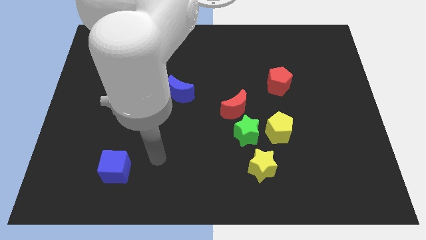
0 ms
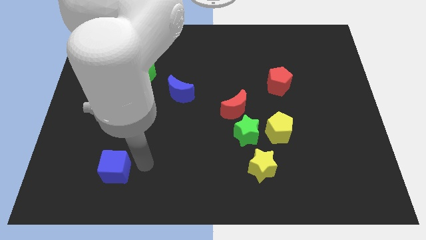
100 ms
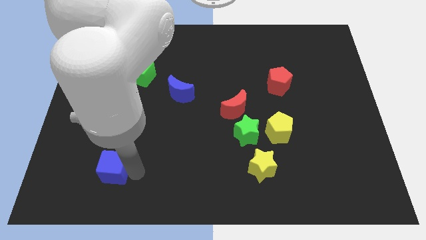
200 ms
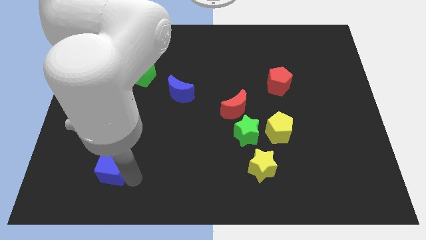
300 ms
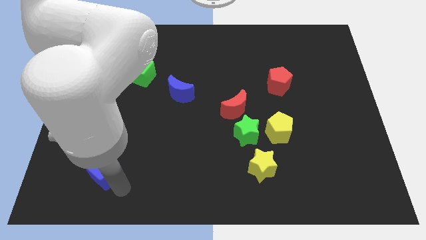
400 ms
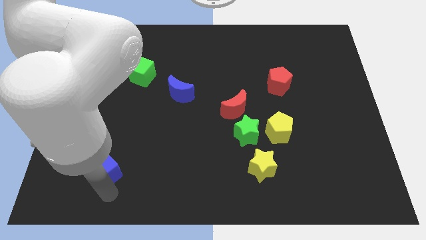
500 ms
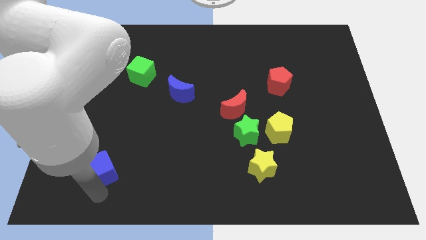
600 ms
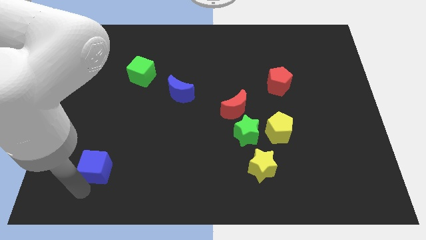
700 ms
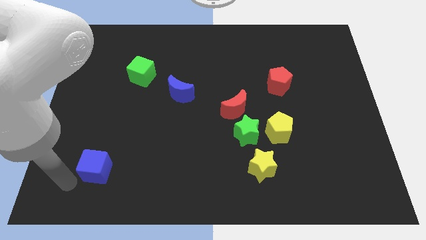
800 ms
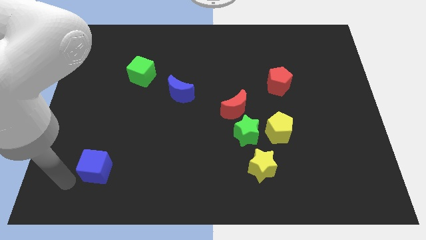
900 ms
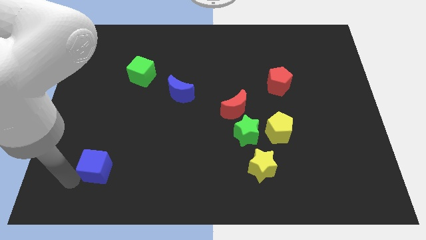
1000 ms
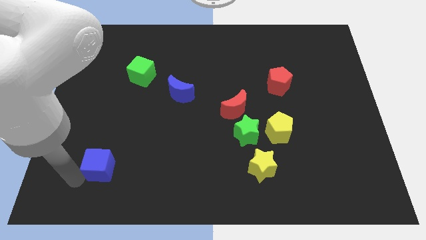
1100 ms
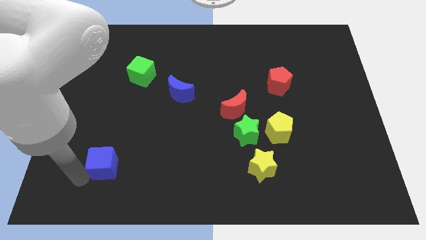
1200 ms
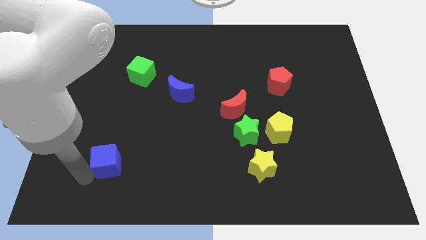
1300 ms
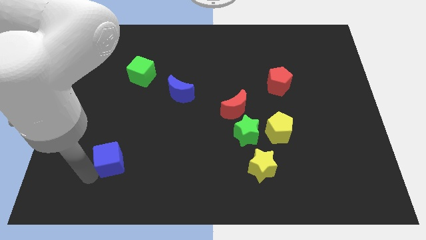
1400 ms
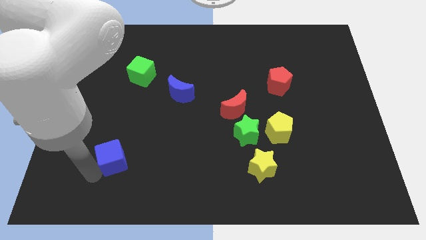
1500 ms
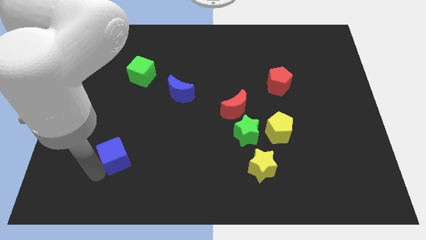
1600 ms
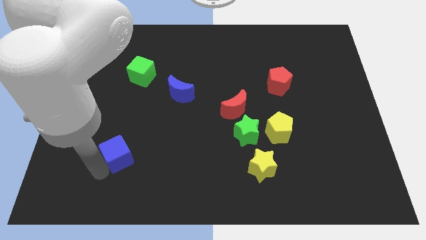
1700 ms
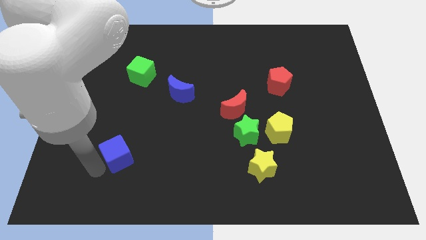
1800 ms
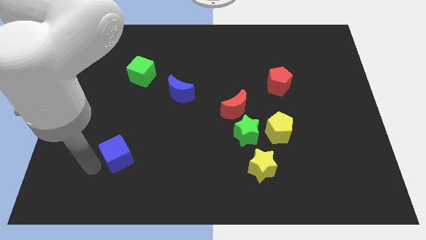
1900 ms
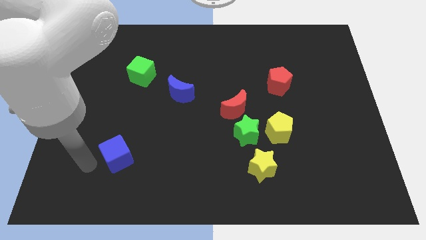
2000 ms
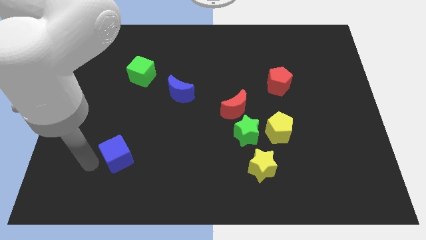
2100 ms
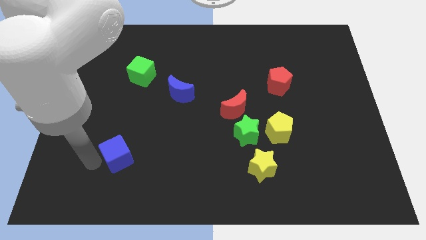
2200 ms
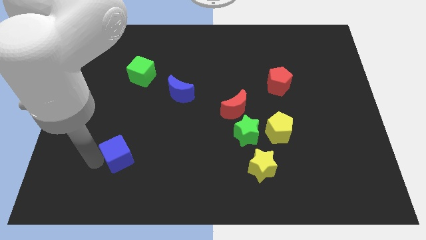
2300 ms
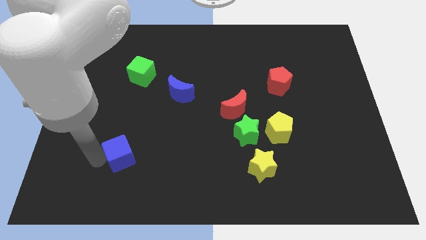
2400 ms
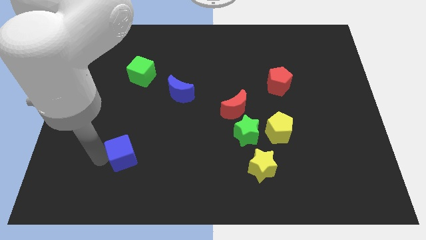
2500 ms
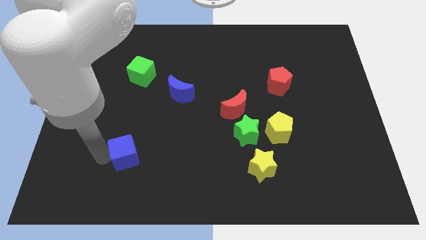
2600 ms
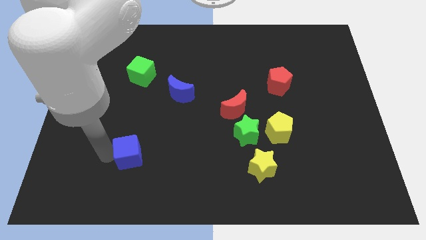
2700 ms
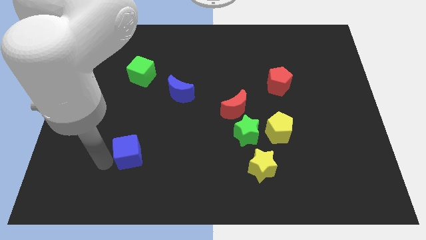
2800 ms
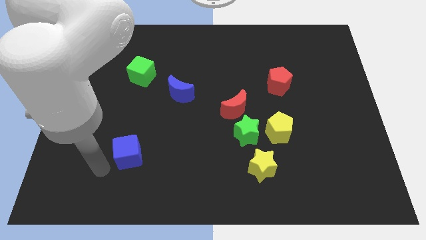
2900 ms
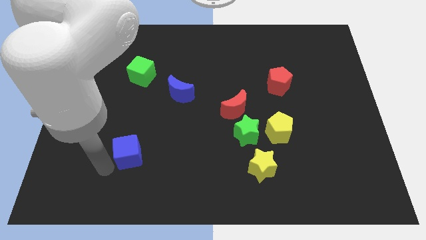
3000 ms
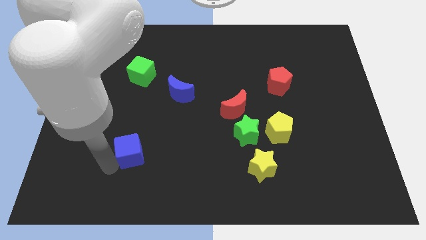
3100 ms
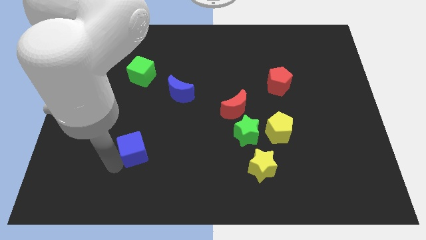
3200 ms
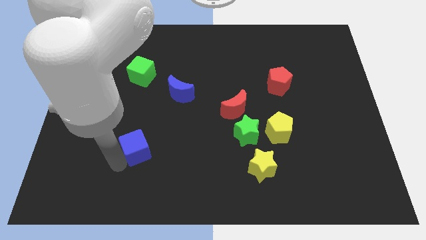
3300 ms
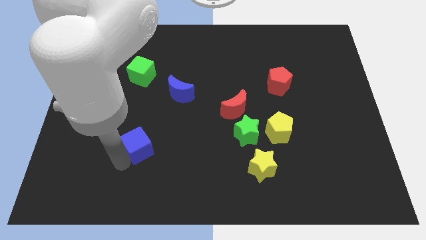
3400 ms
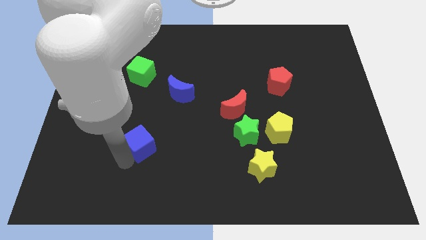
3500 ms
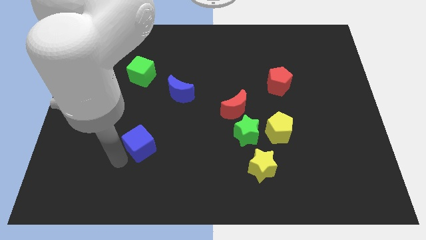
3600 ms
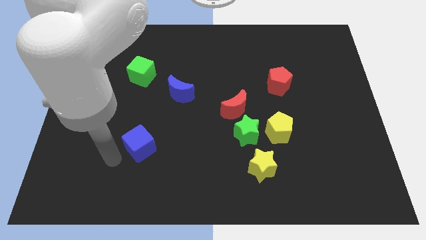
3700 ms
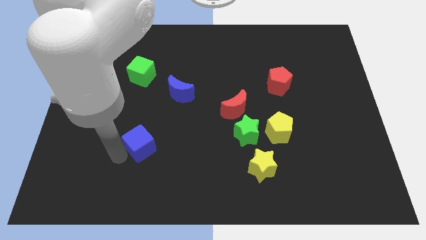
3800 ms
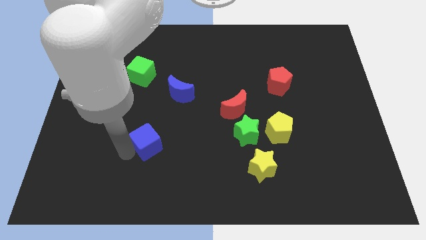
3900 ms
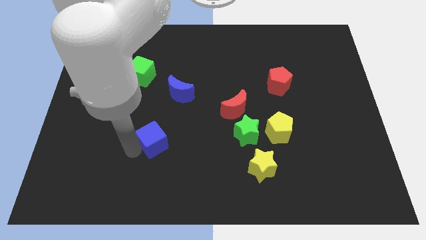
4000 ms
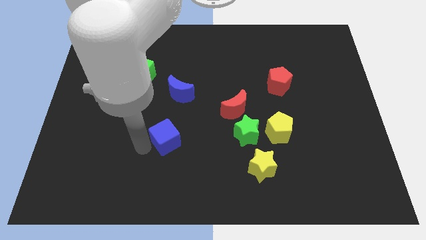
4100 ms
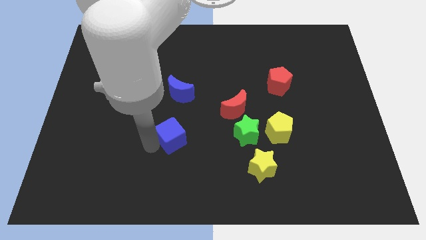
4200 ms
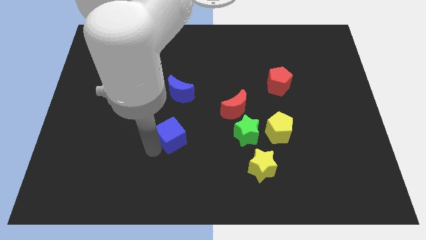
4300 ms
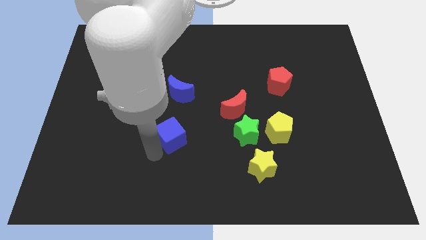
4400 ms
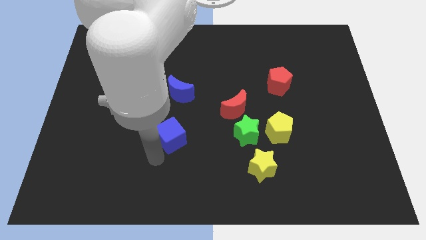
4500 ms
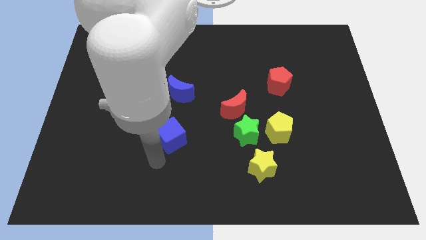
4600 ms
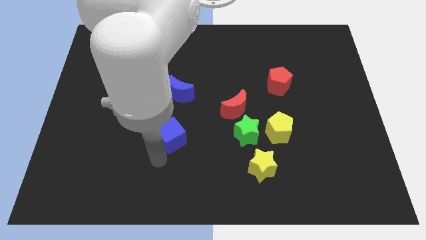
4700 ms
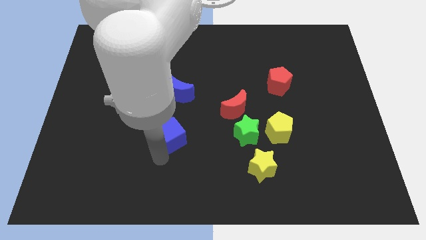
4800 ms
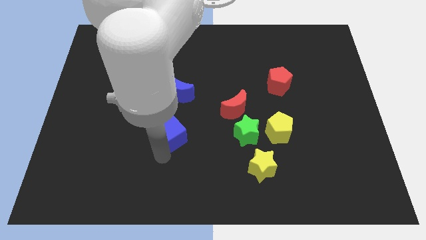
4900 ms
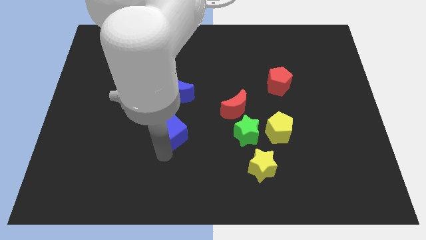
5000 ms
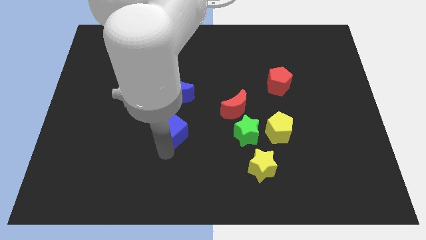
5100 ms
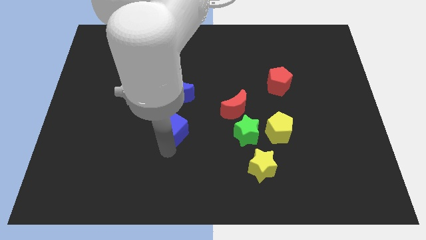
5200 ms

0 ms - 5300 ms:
put the blue cube to the center of the board

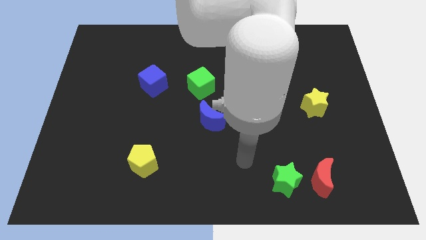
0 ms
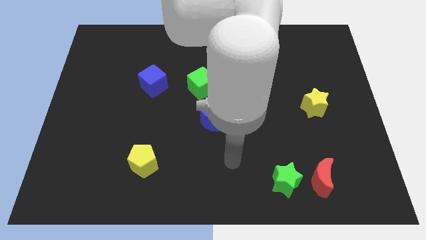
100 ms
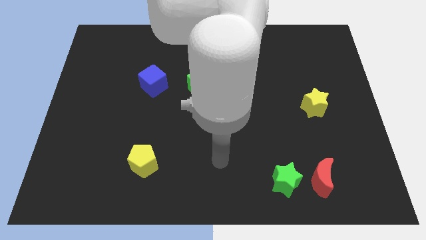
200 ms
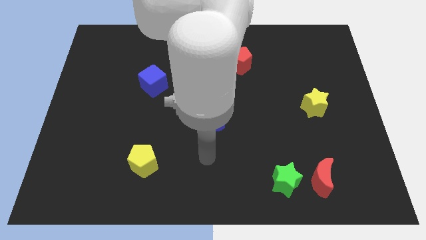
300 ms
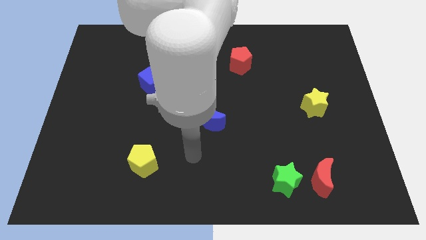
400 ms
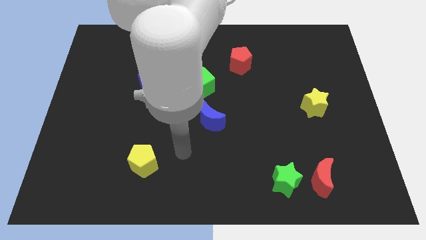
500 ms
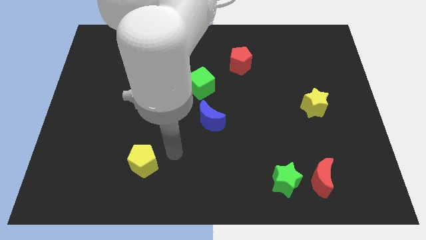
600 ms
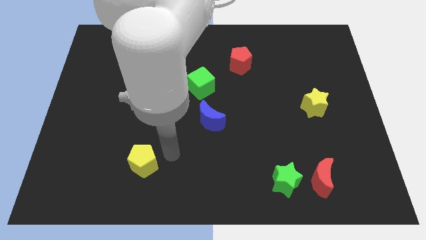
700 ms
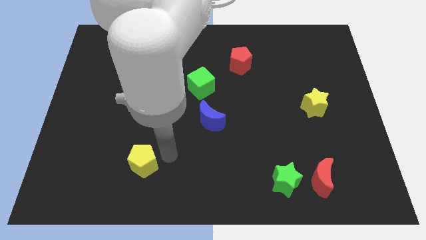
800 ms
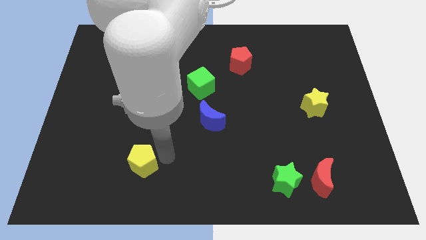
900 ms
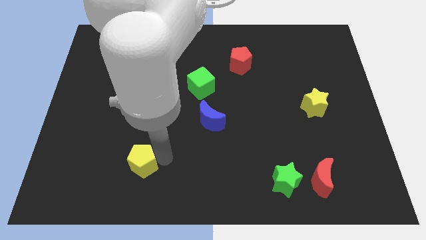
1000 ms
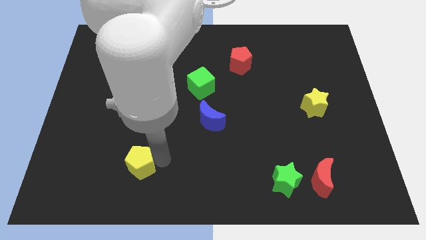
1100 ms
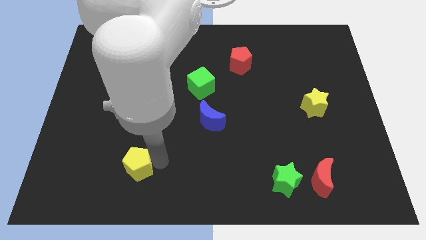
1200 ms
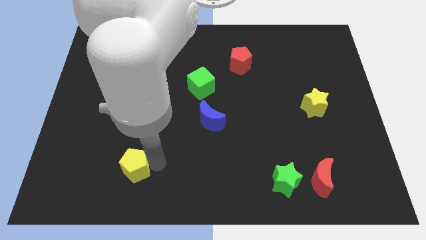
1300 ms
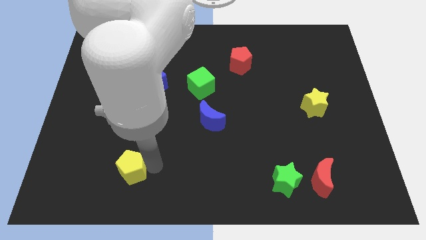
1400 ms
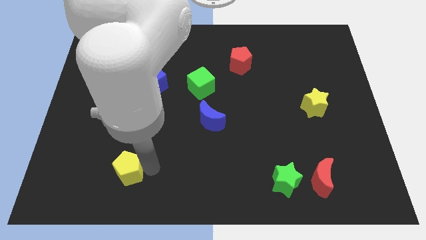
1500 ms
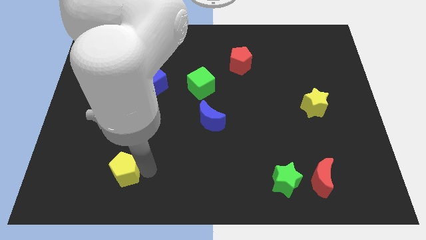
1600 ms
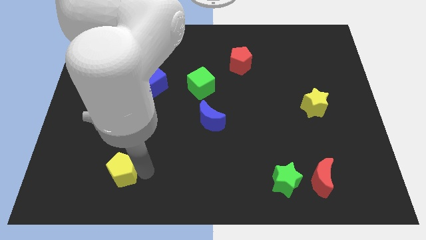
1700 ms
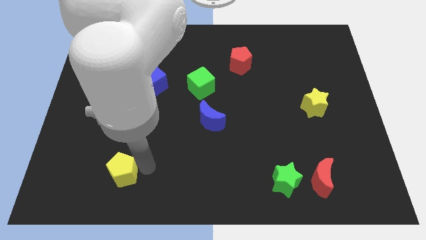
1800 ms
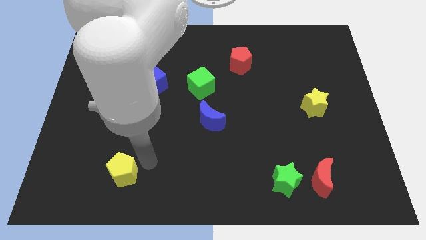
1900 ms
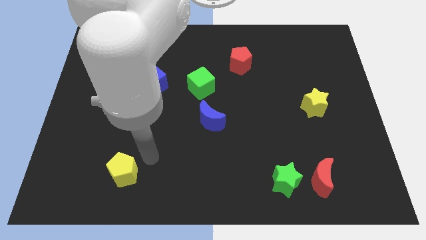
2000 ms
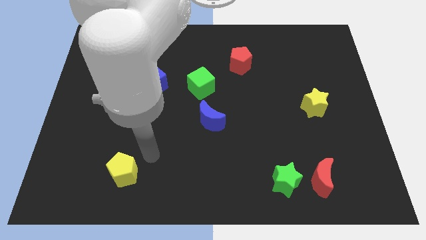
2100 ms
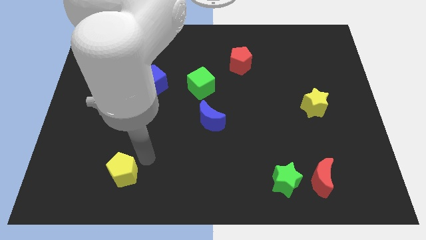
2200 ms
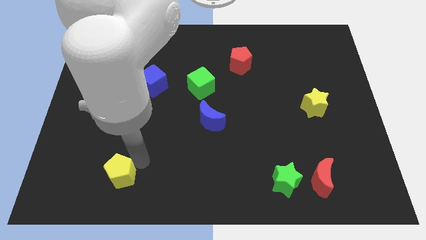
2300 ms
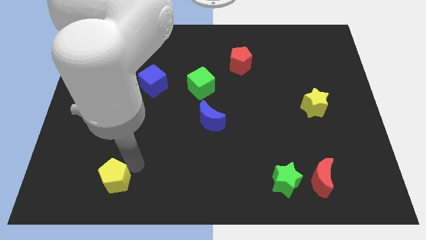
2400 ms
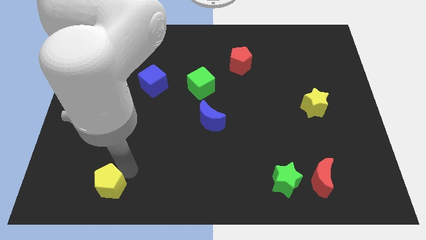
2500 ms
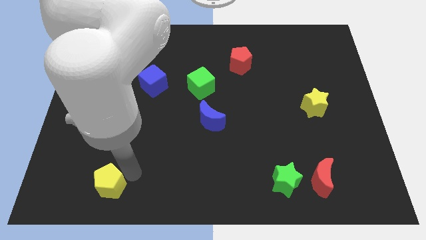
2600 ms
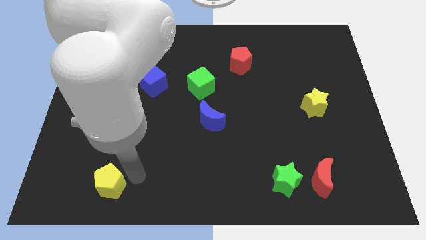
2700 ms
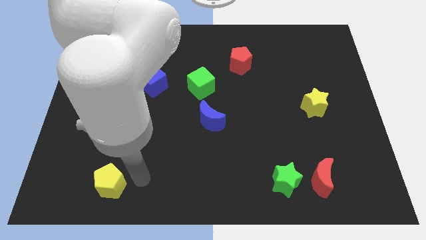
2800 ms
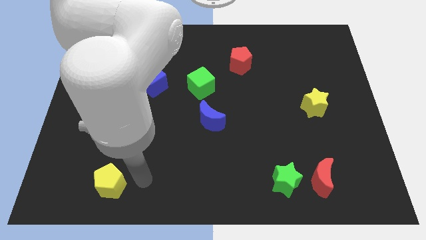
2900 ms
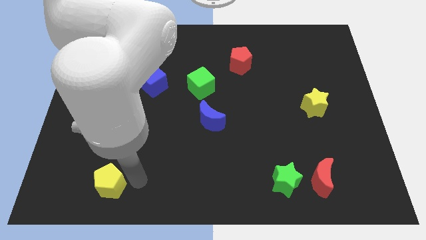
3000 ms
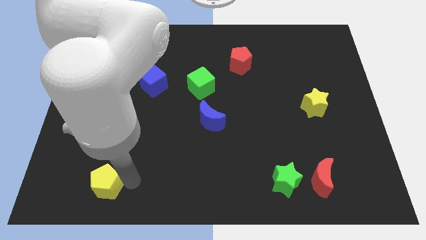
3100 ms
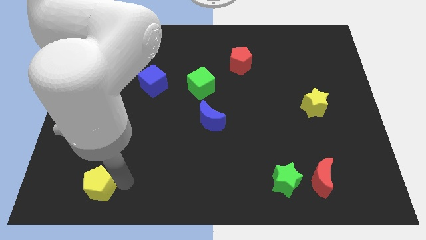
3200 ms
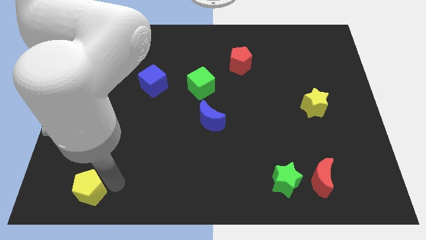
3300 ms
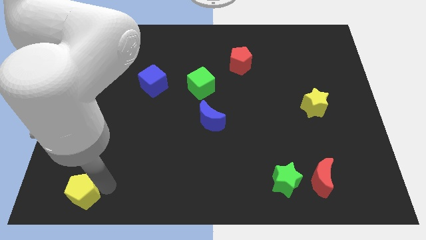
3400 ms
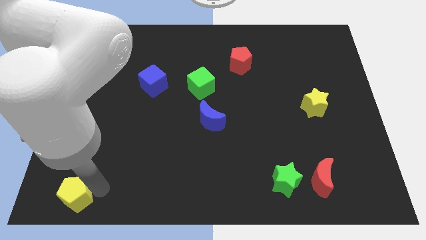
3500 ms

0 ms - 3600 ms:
slide the yellow pentagon to the bottom left corner
